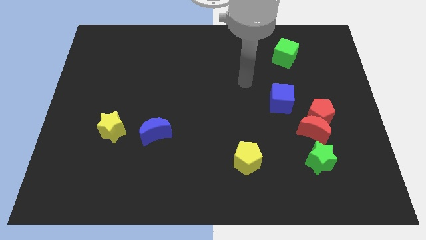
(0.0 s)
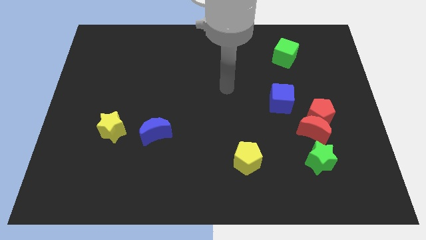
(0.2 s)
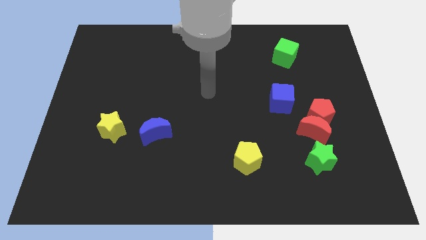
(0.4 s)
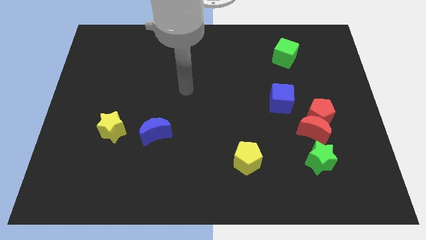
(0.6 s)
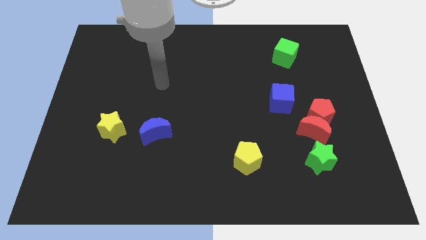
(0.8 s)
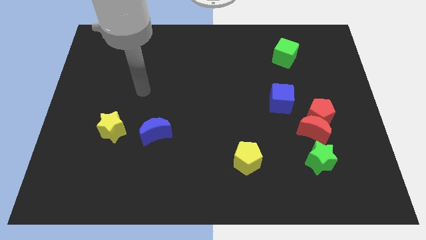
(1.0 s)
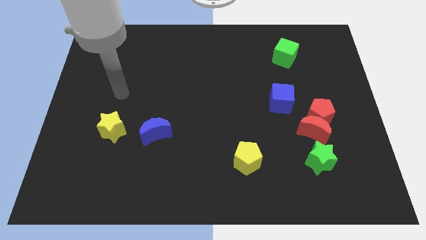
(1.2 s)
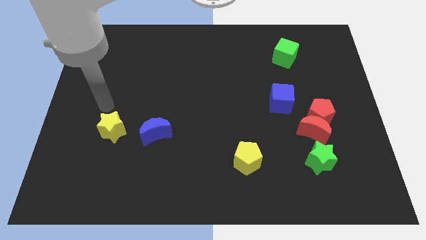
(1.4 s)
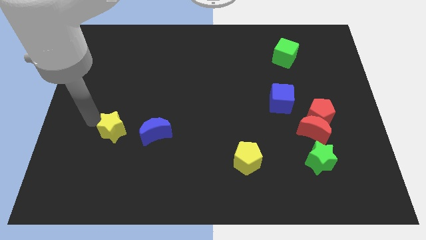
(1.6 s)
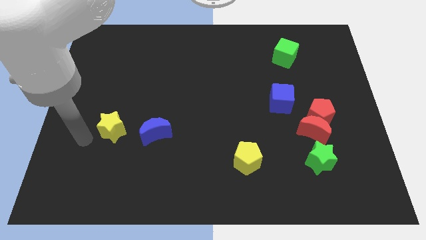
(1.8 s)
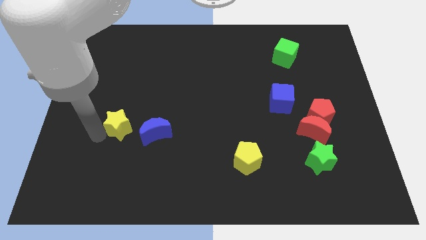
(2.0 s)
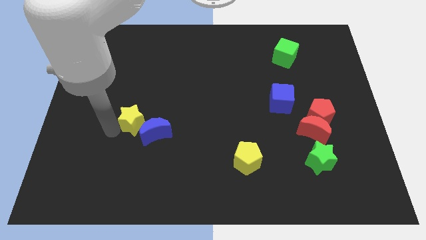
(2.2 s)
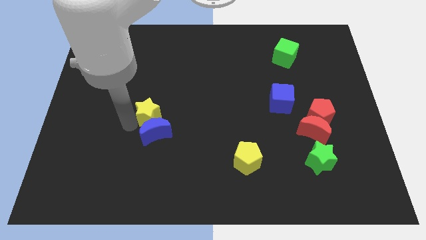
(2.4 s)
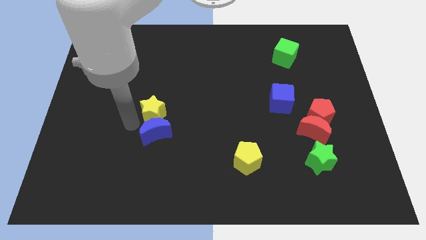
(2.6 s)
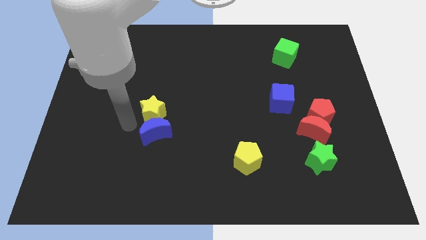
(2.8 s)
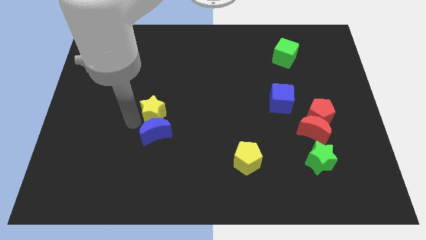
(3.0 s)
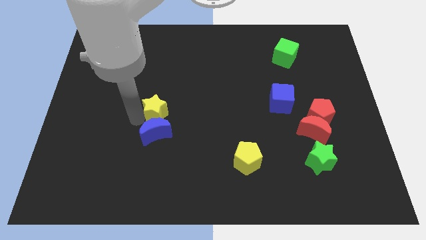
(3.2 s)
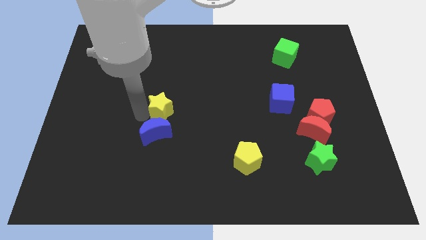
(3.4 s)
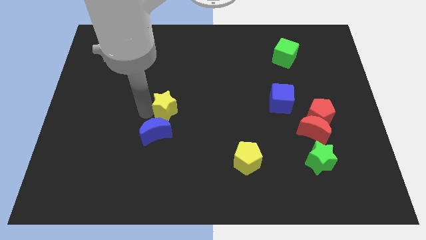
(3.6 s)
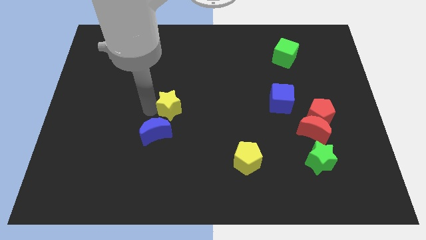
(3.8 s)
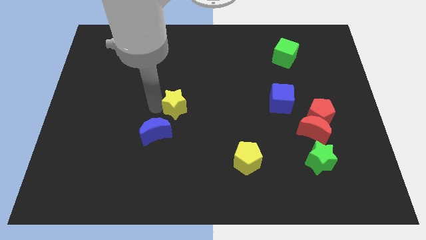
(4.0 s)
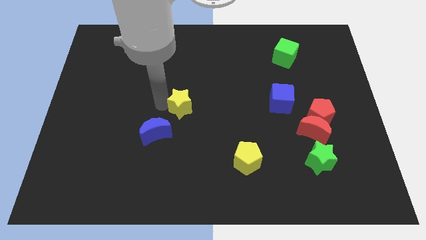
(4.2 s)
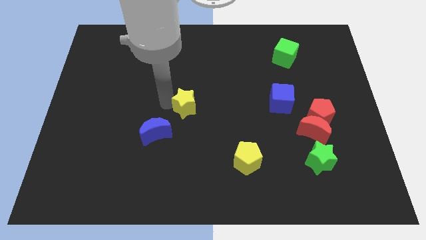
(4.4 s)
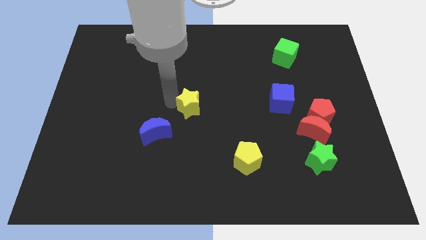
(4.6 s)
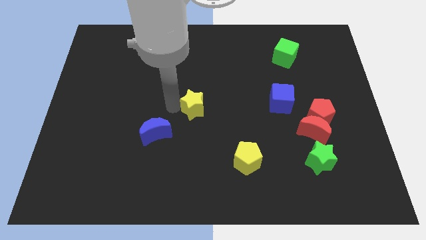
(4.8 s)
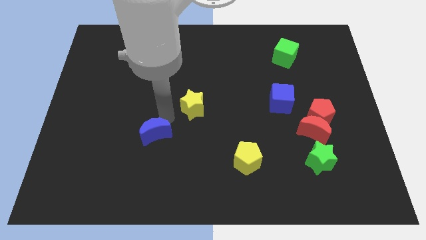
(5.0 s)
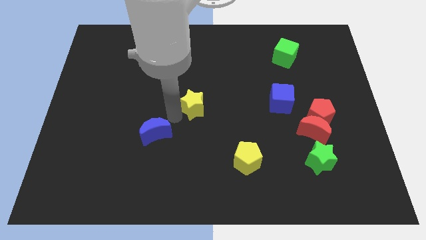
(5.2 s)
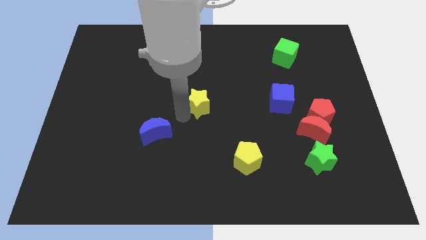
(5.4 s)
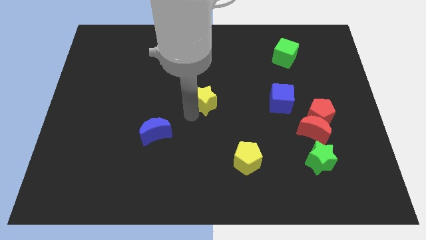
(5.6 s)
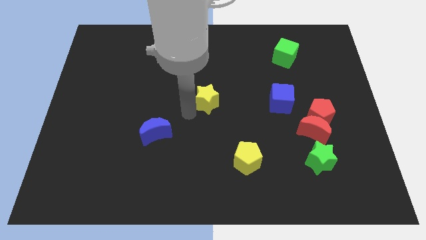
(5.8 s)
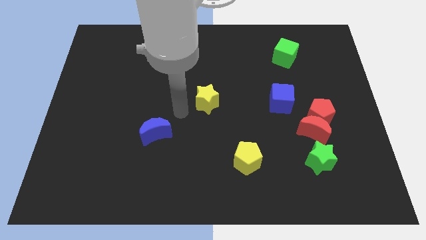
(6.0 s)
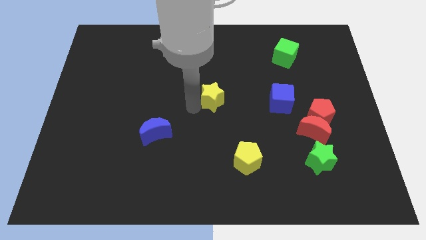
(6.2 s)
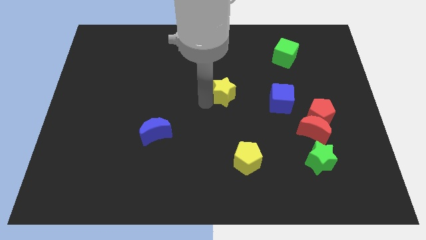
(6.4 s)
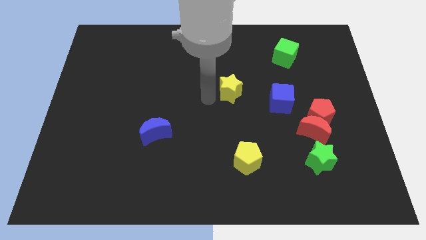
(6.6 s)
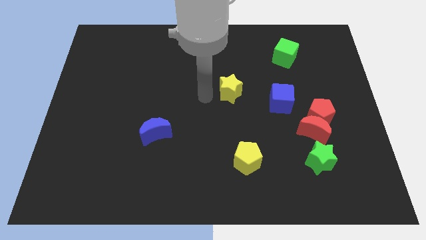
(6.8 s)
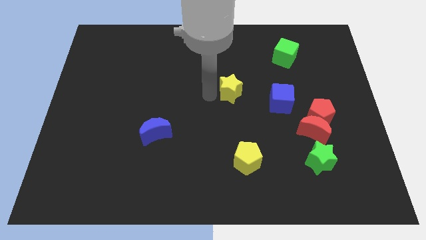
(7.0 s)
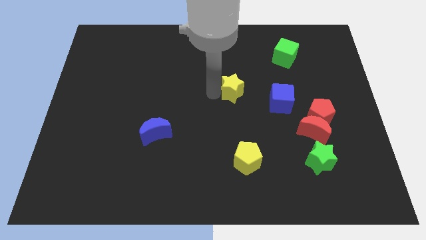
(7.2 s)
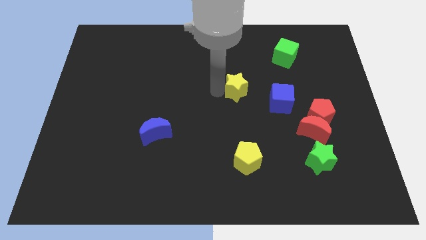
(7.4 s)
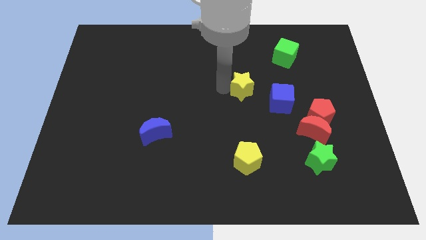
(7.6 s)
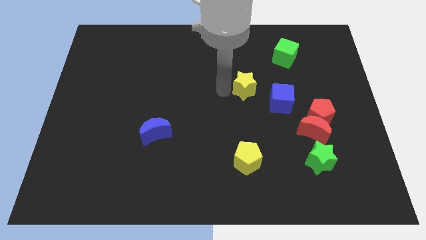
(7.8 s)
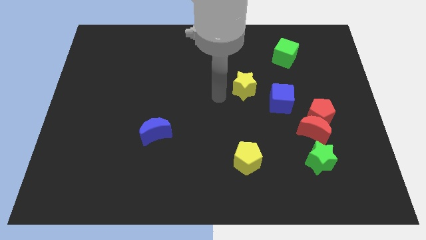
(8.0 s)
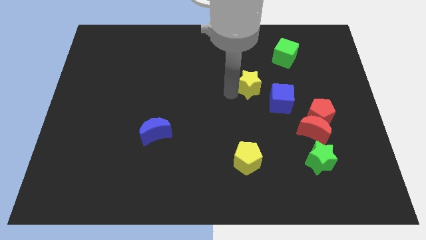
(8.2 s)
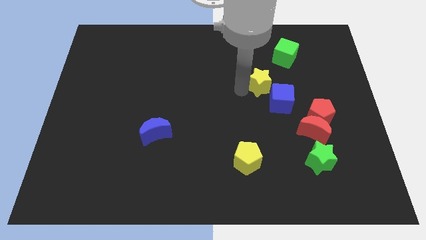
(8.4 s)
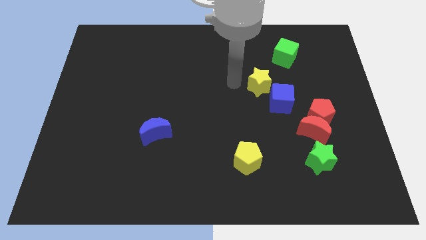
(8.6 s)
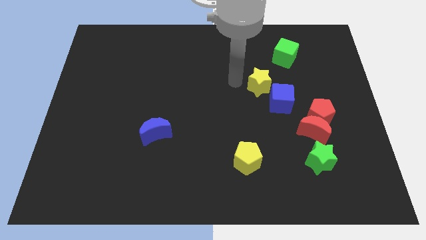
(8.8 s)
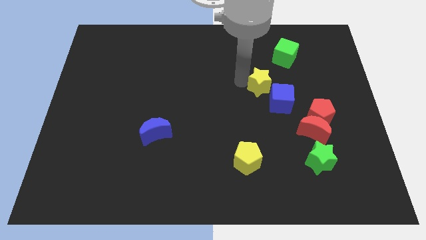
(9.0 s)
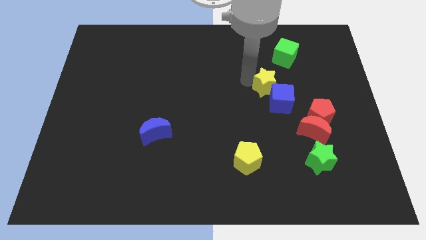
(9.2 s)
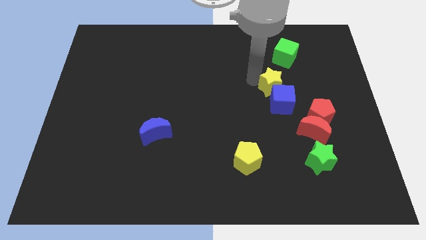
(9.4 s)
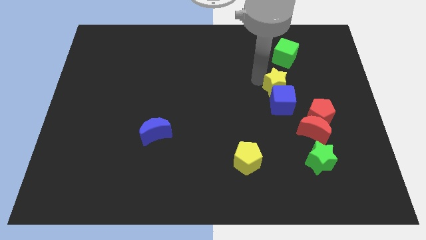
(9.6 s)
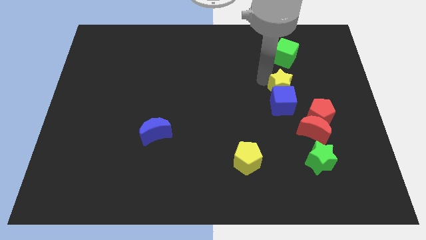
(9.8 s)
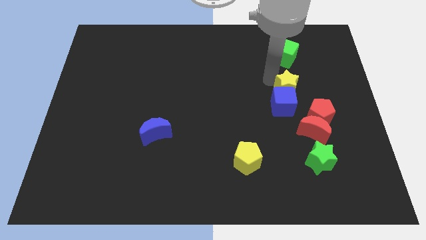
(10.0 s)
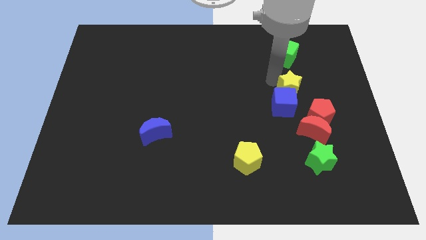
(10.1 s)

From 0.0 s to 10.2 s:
put the yellow star to the top of the red moon
